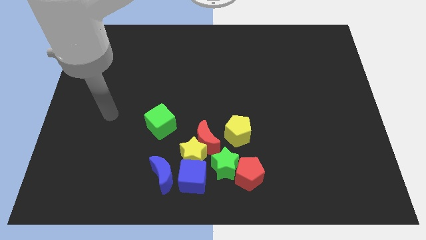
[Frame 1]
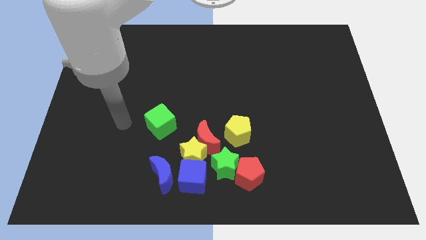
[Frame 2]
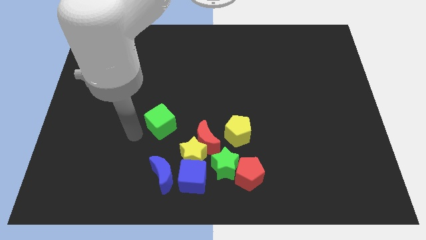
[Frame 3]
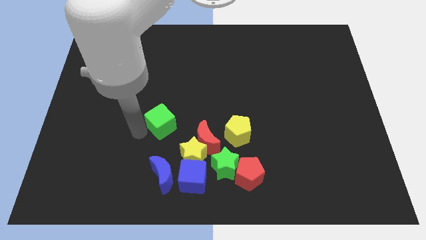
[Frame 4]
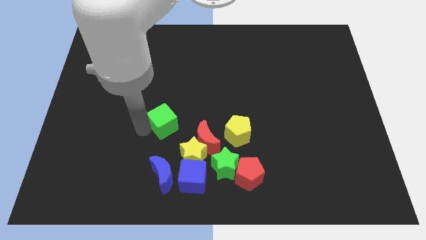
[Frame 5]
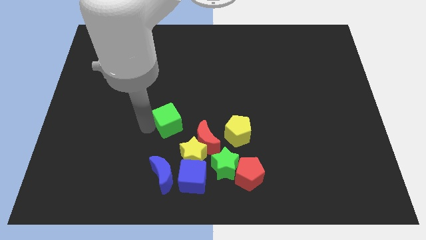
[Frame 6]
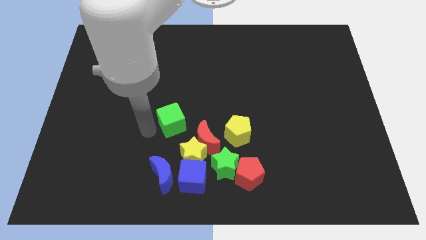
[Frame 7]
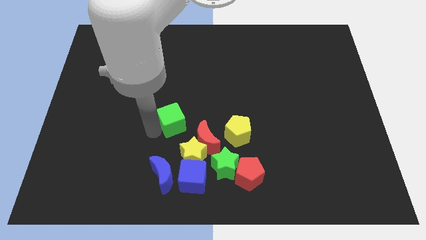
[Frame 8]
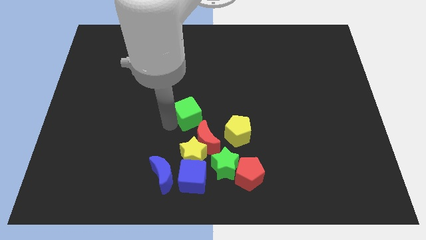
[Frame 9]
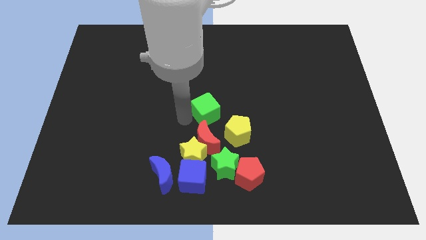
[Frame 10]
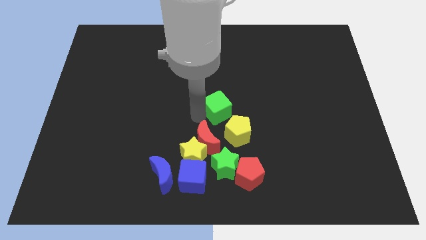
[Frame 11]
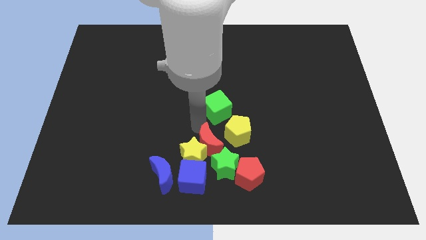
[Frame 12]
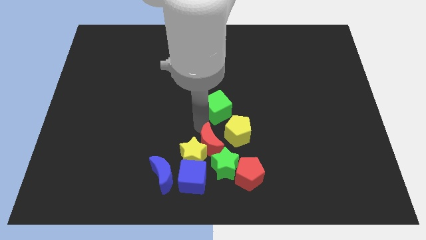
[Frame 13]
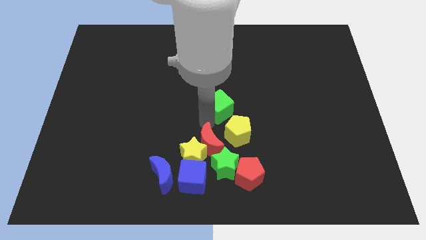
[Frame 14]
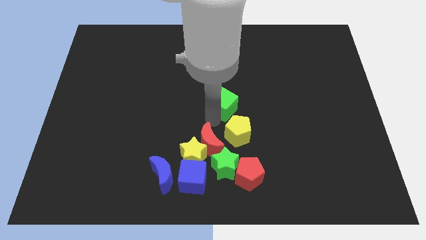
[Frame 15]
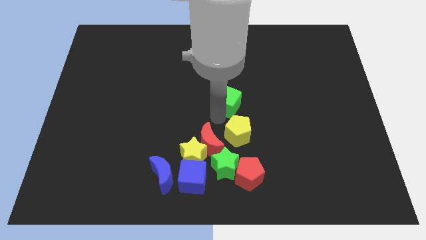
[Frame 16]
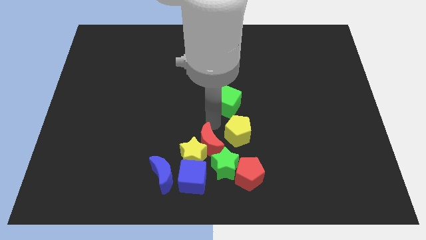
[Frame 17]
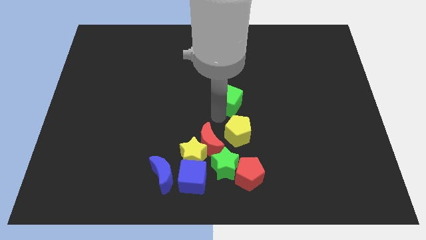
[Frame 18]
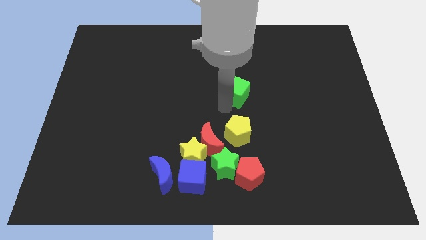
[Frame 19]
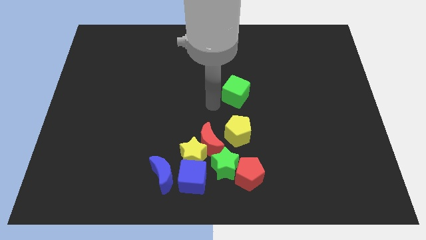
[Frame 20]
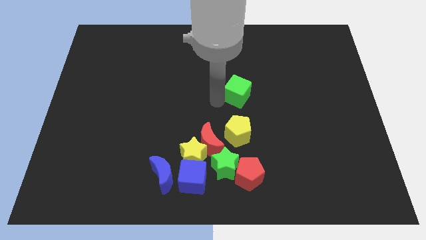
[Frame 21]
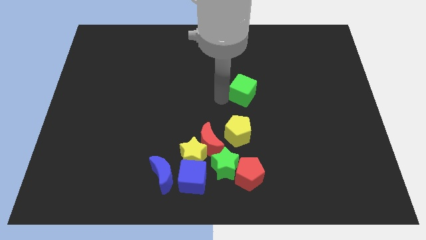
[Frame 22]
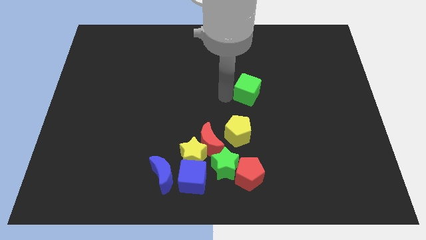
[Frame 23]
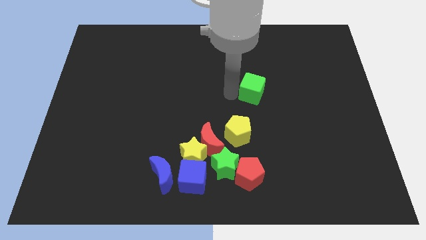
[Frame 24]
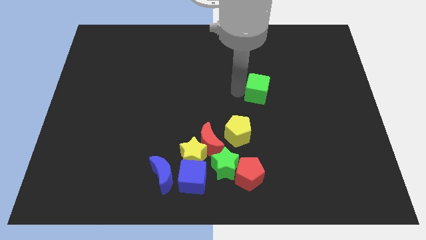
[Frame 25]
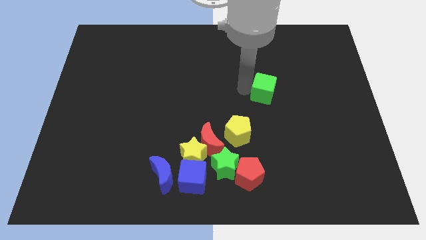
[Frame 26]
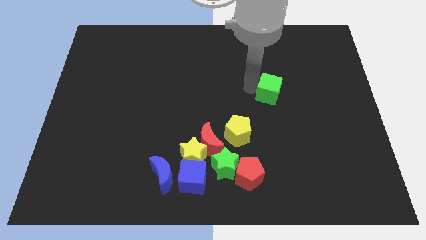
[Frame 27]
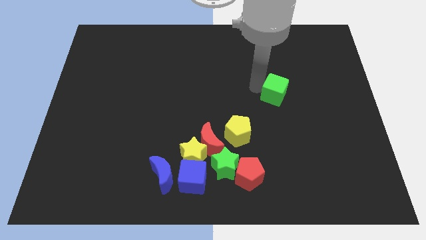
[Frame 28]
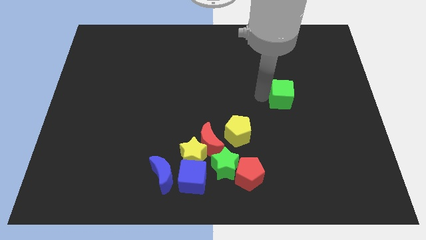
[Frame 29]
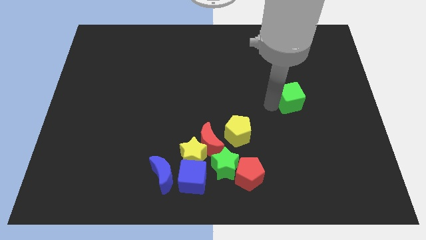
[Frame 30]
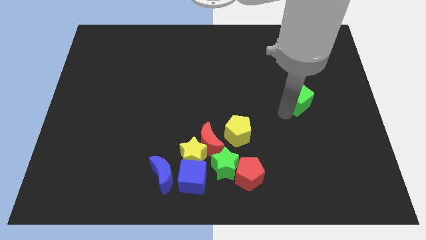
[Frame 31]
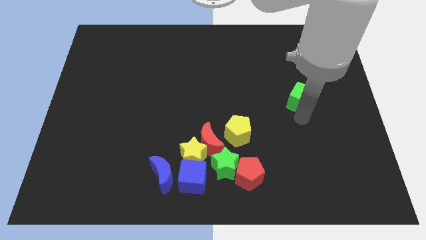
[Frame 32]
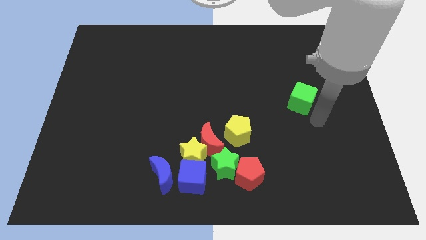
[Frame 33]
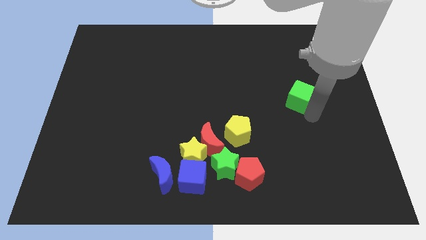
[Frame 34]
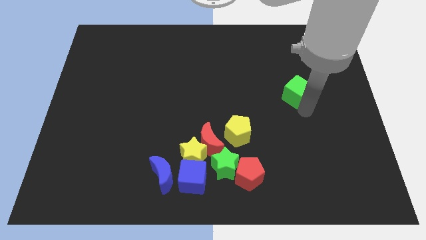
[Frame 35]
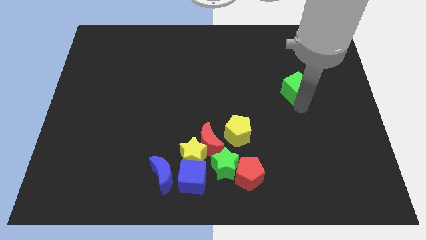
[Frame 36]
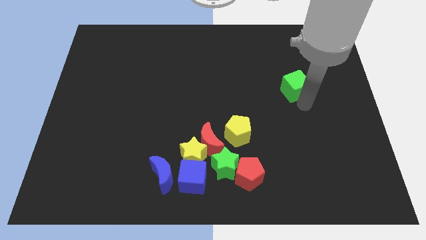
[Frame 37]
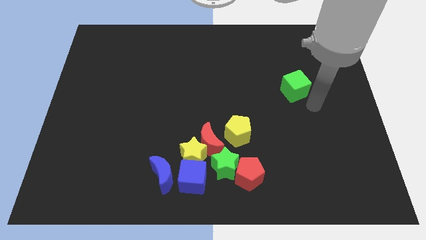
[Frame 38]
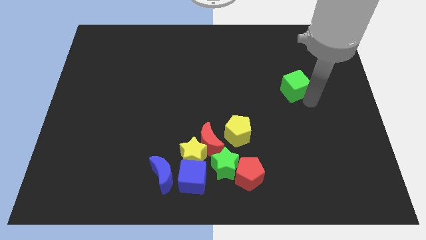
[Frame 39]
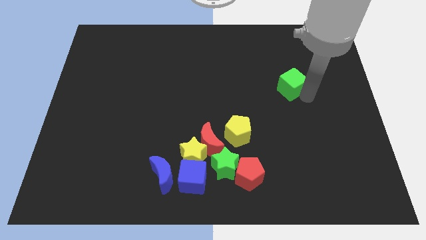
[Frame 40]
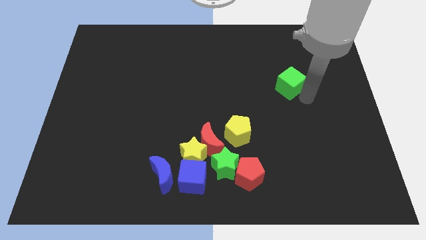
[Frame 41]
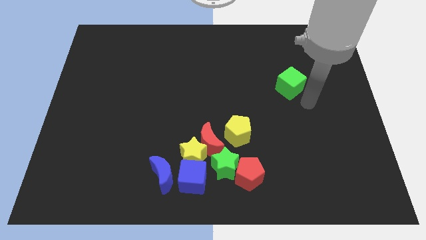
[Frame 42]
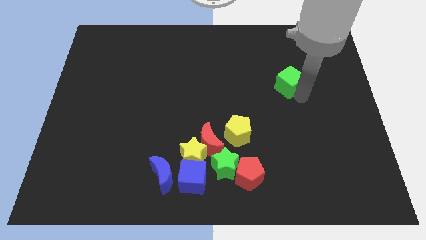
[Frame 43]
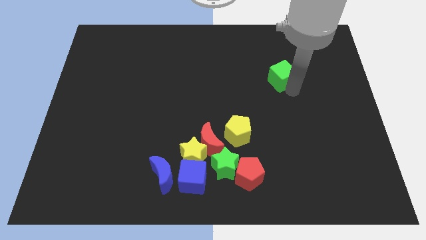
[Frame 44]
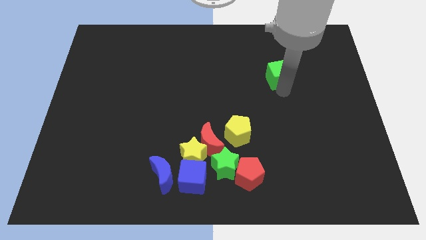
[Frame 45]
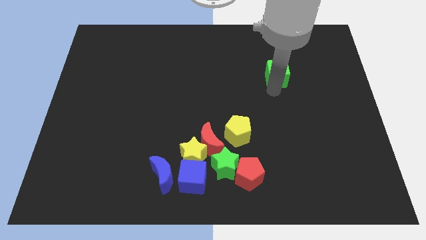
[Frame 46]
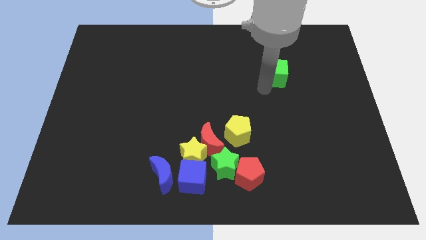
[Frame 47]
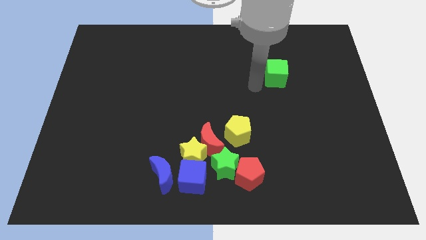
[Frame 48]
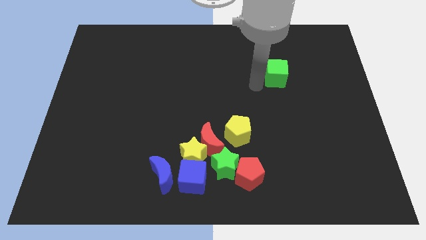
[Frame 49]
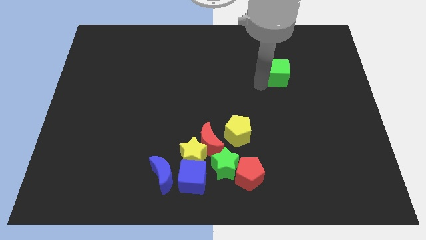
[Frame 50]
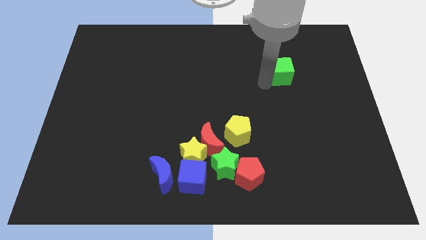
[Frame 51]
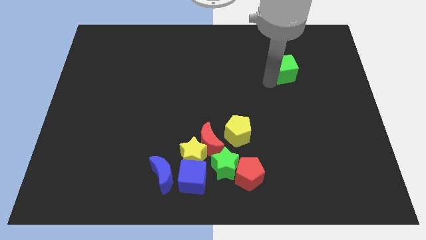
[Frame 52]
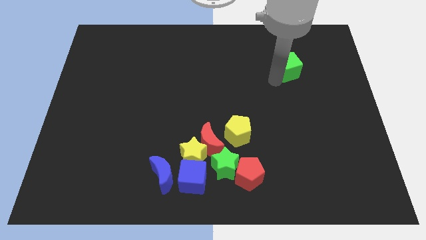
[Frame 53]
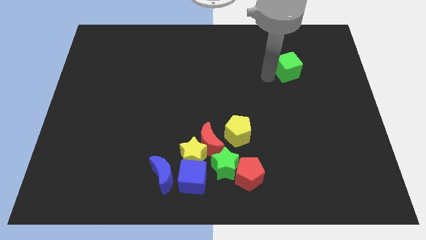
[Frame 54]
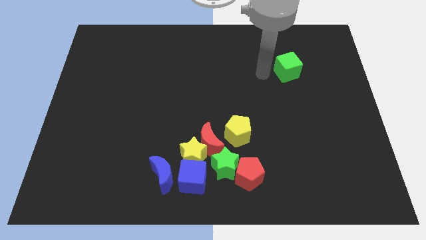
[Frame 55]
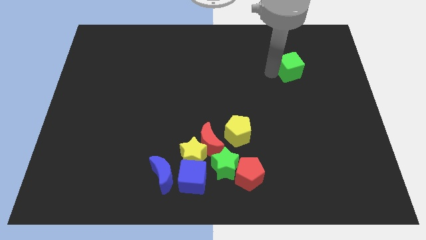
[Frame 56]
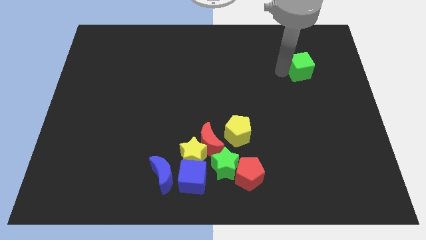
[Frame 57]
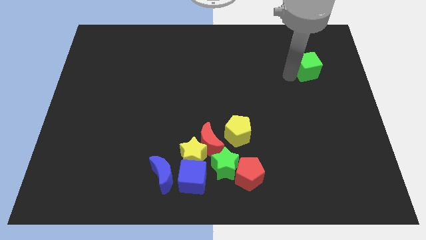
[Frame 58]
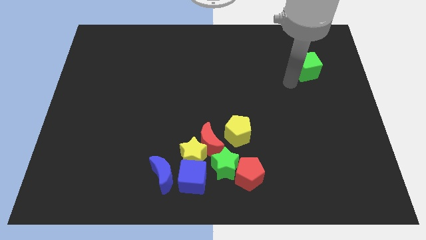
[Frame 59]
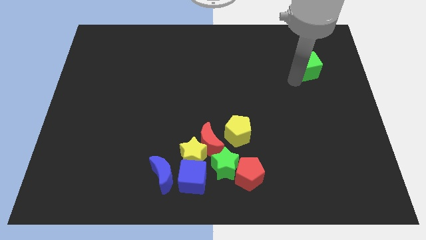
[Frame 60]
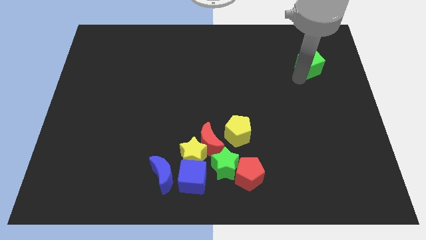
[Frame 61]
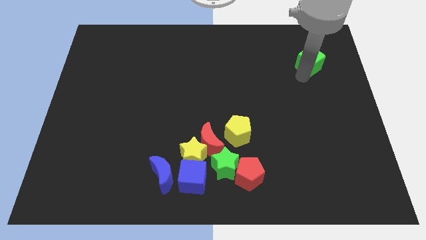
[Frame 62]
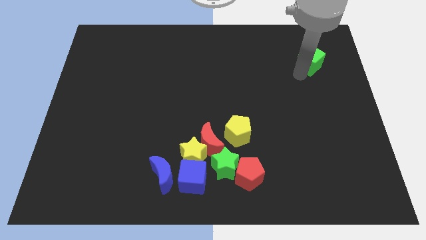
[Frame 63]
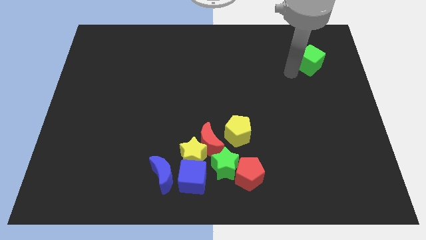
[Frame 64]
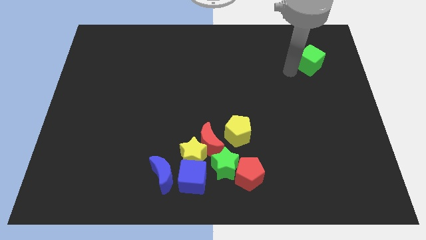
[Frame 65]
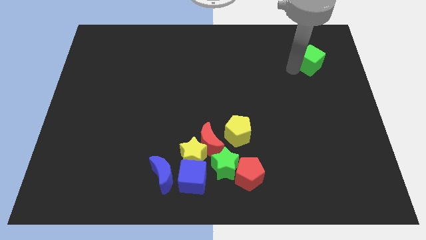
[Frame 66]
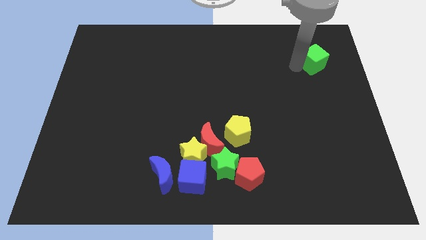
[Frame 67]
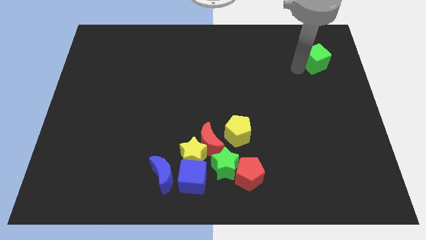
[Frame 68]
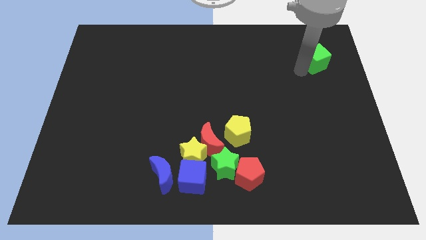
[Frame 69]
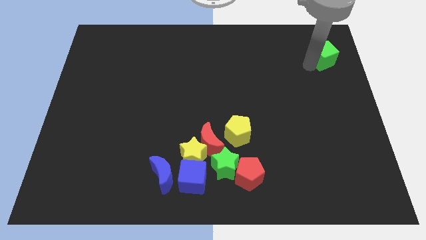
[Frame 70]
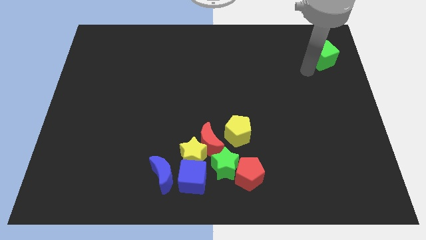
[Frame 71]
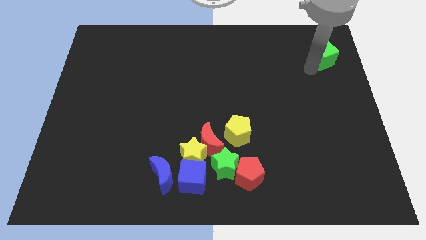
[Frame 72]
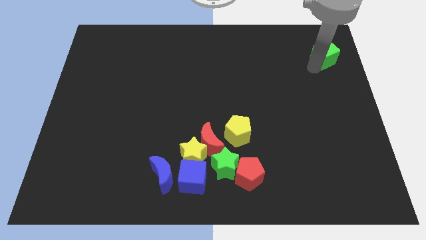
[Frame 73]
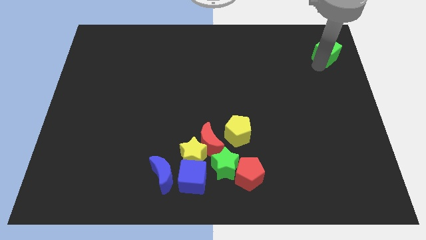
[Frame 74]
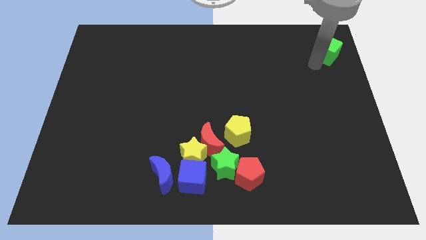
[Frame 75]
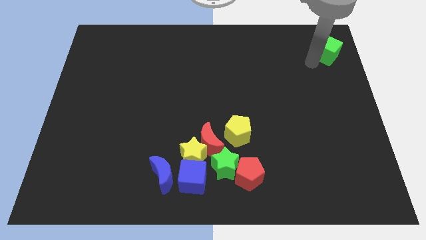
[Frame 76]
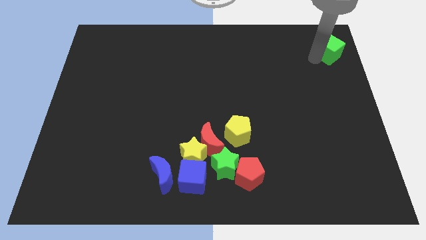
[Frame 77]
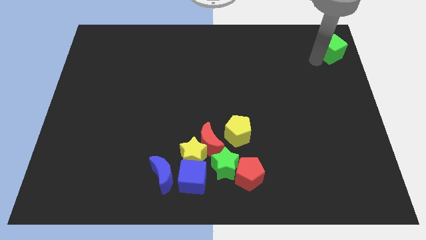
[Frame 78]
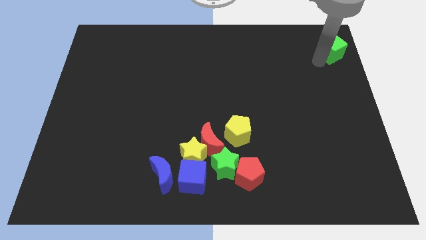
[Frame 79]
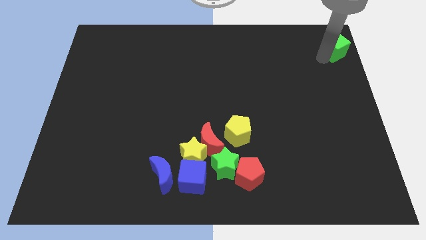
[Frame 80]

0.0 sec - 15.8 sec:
slide the green cube to the top right of the board
